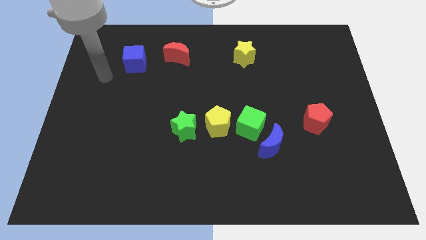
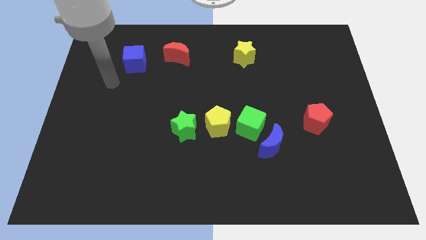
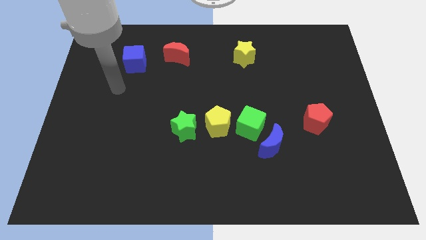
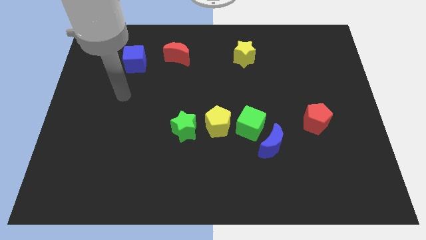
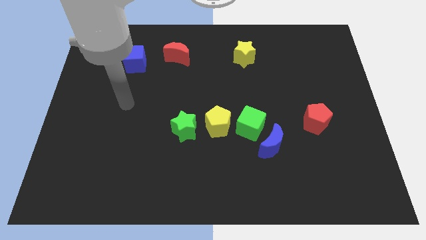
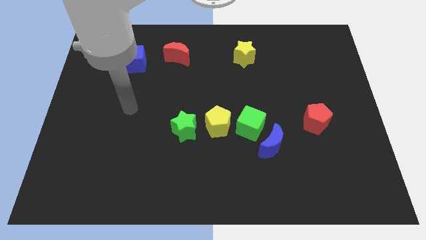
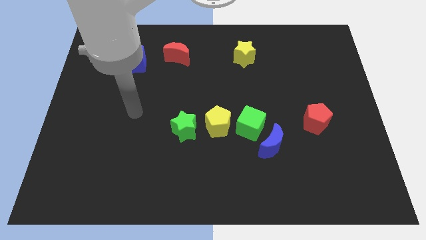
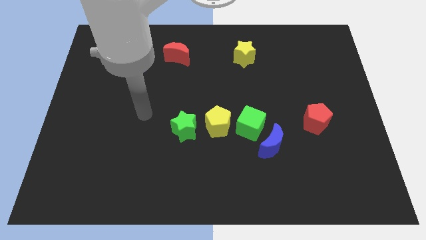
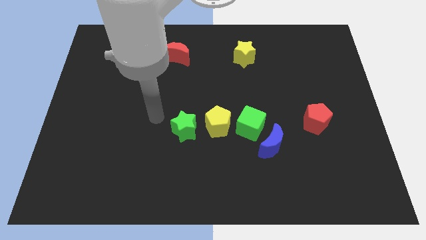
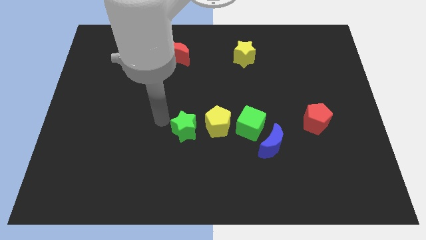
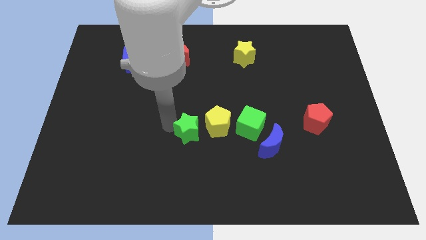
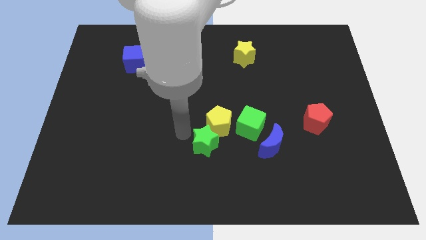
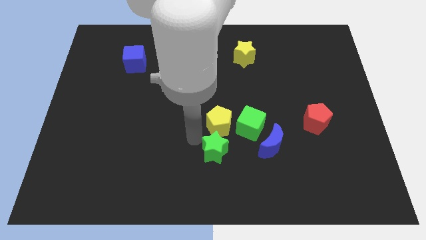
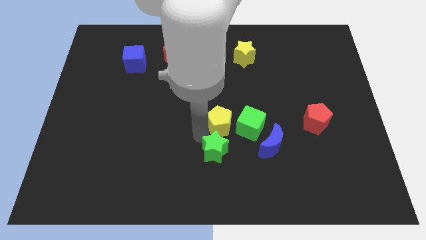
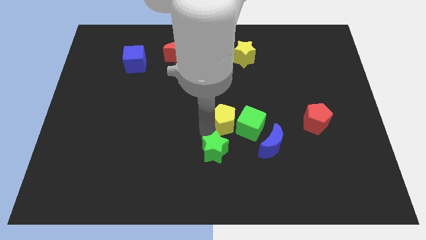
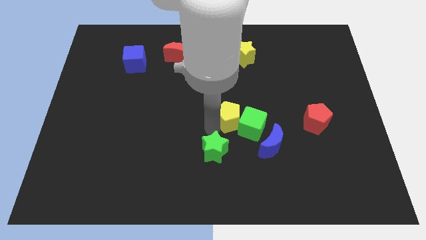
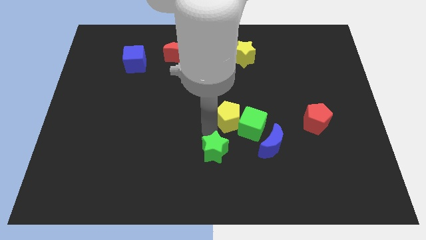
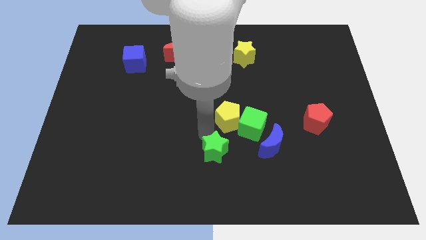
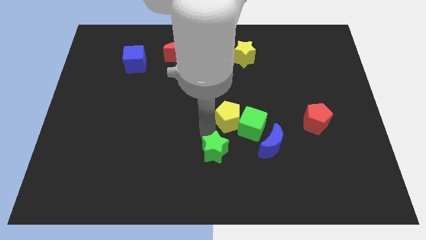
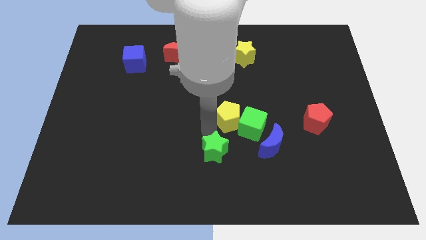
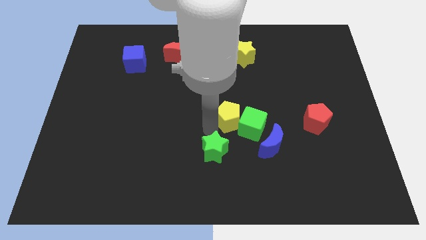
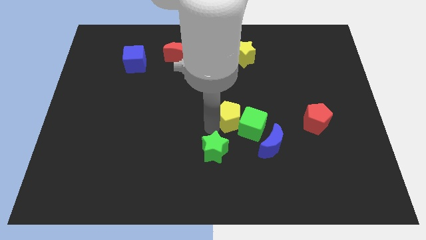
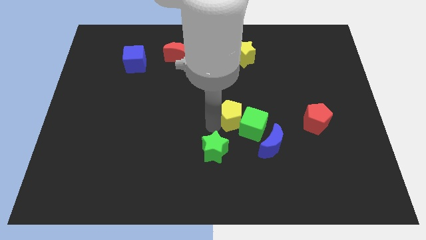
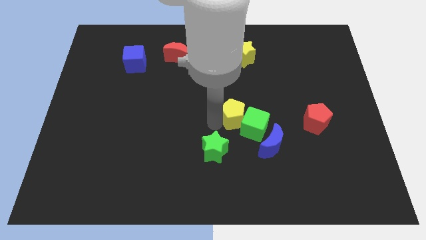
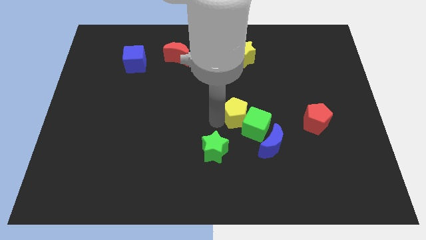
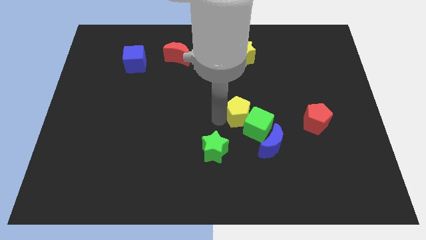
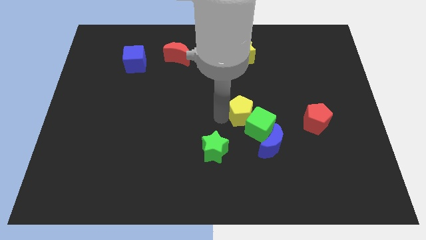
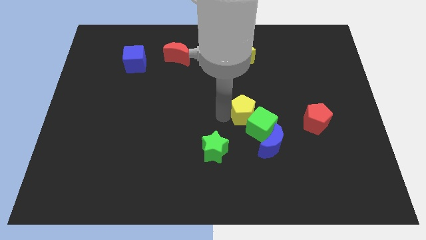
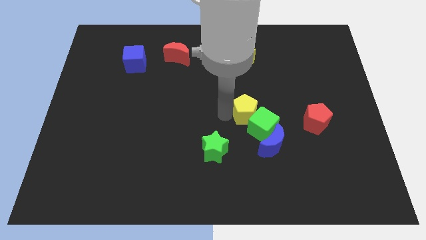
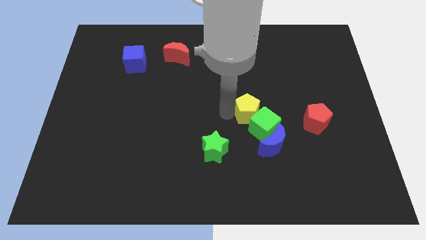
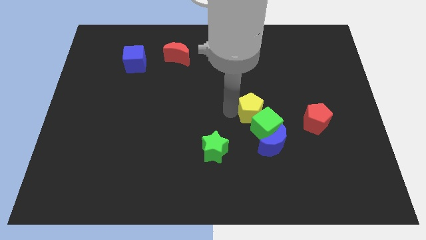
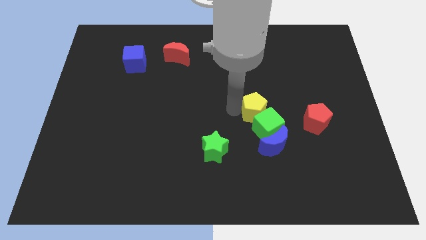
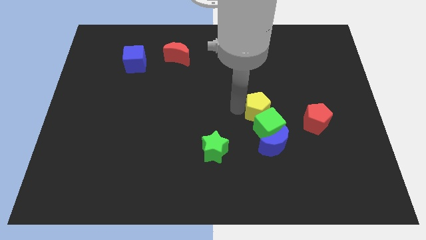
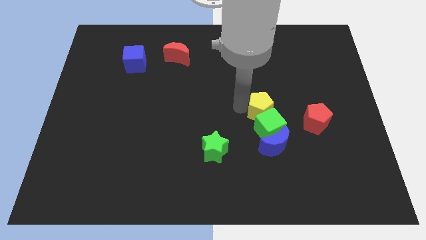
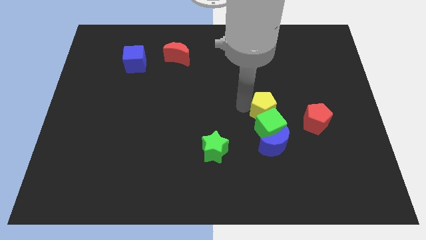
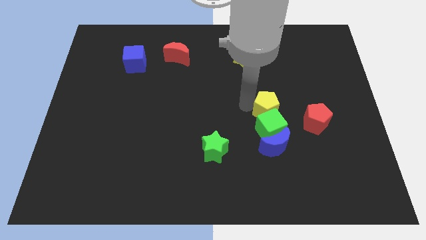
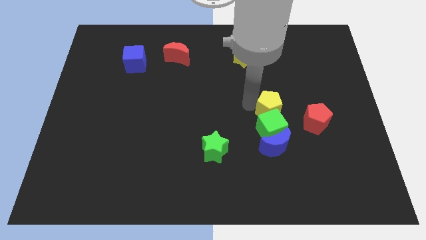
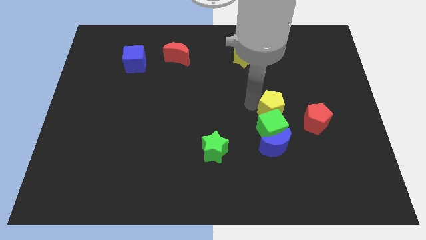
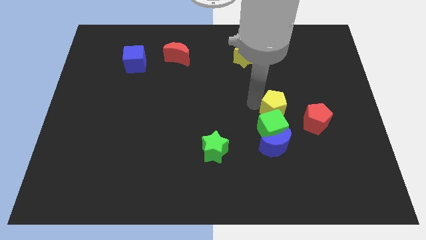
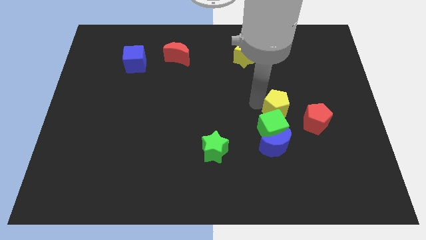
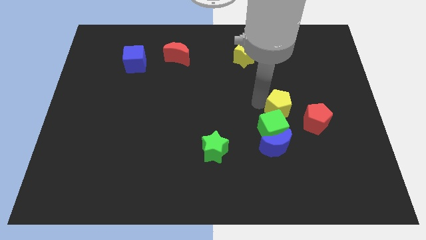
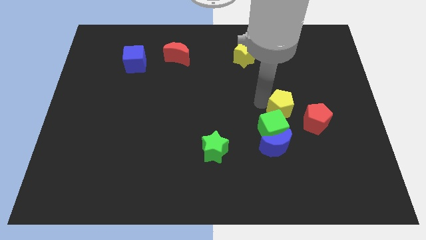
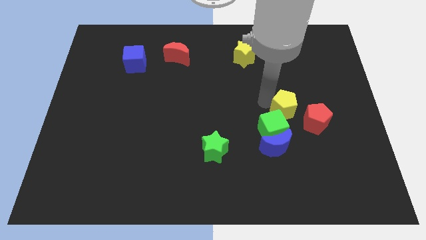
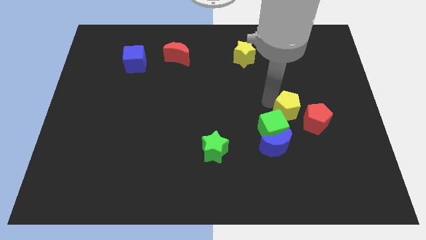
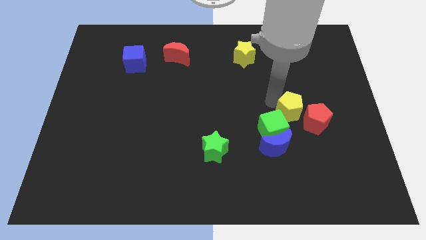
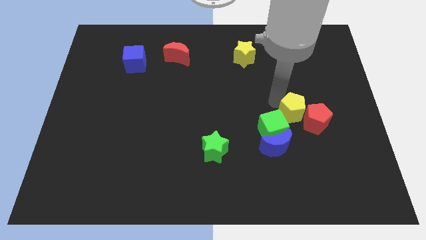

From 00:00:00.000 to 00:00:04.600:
push the yellow pentagon to the red pentagon

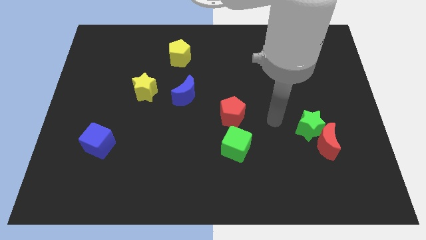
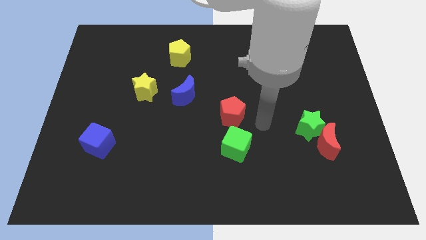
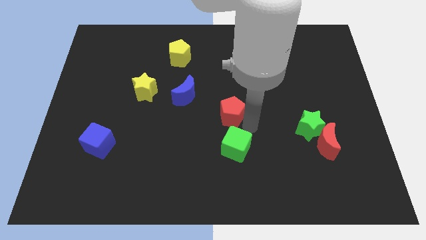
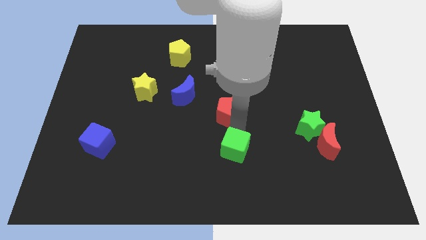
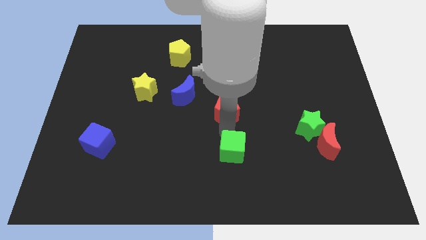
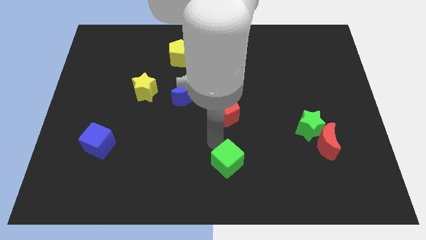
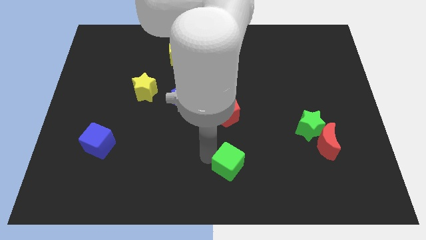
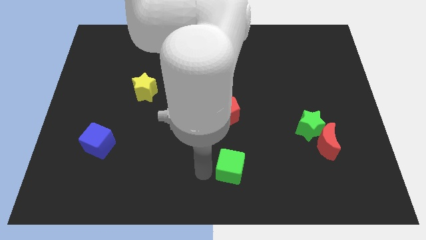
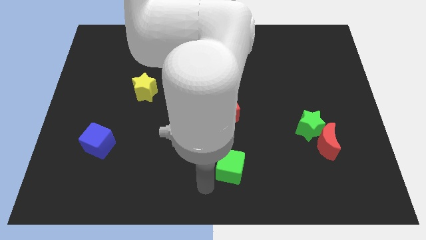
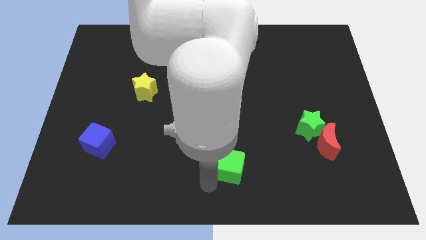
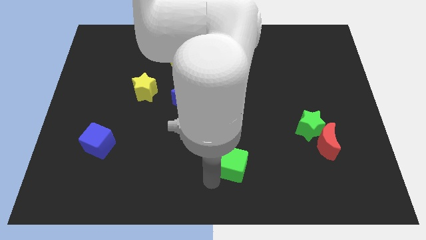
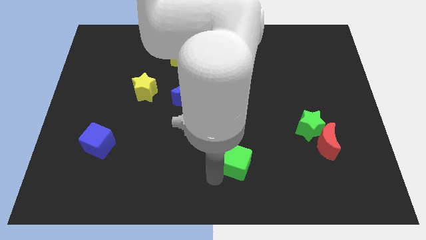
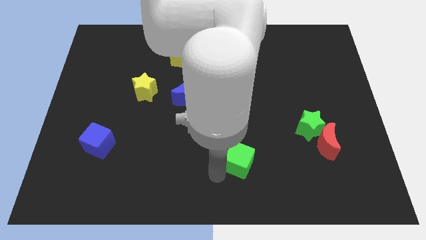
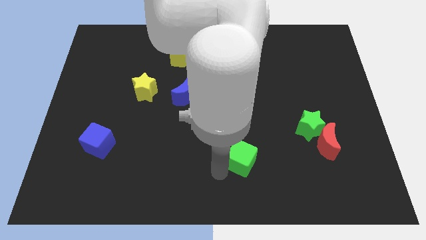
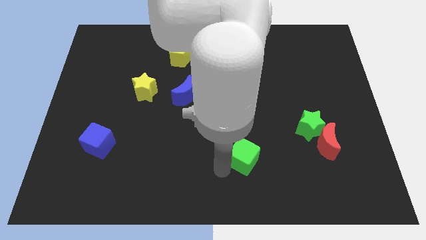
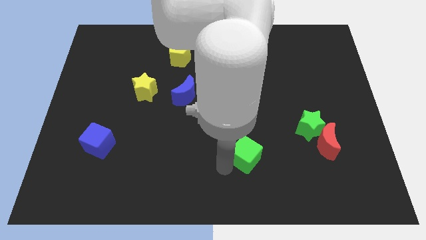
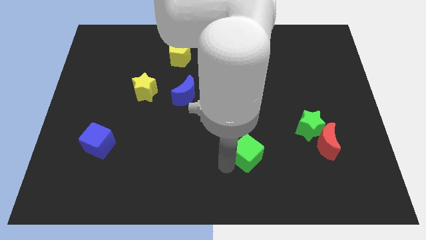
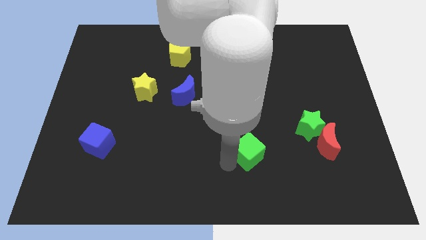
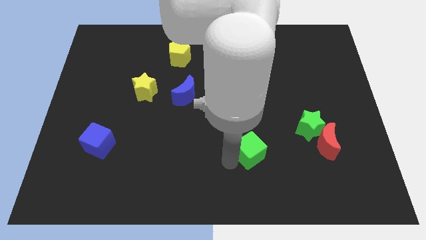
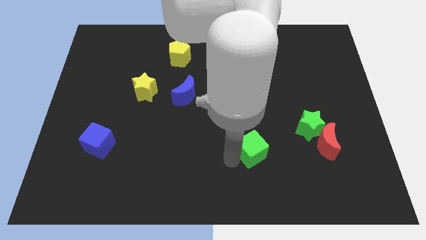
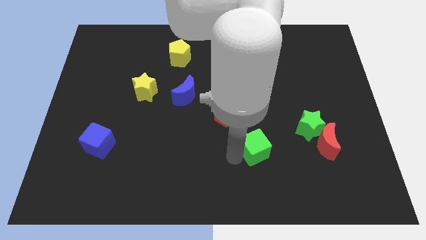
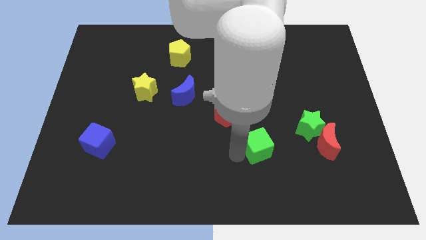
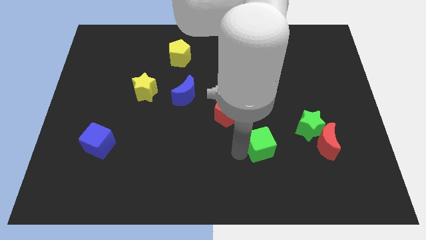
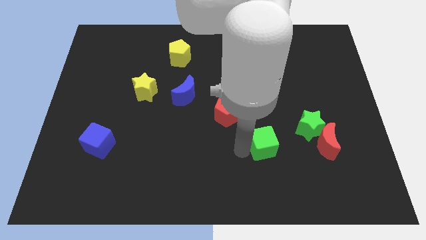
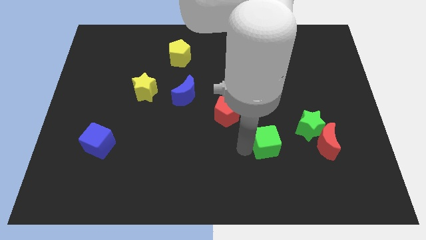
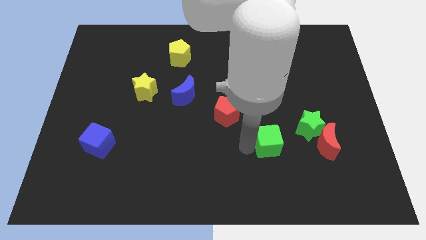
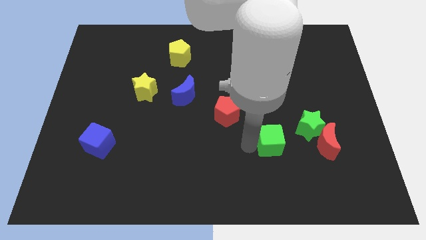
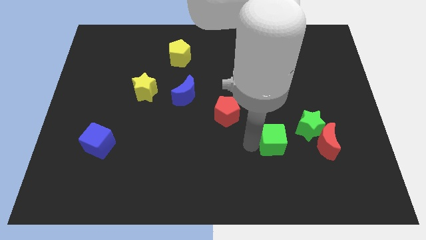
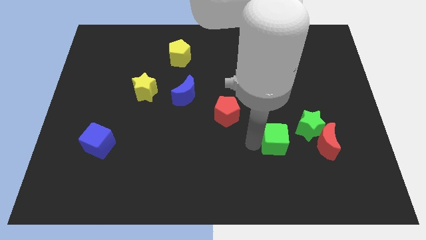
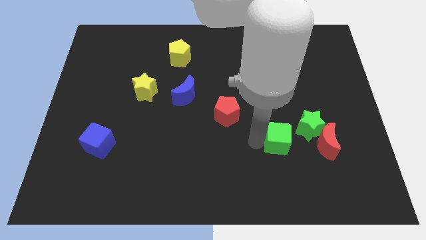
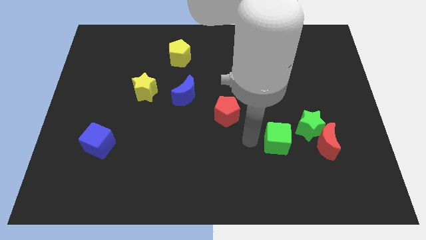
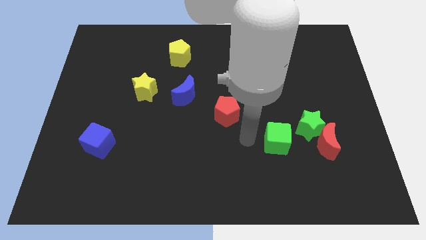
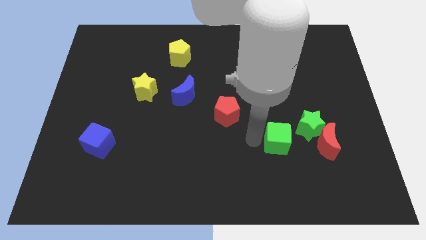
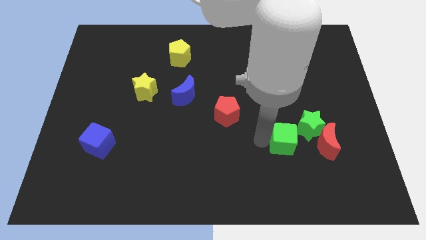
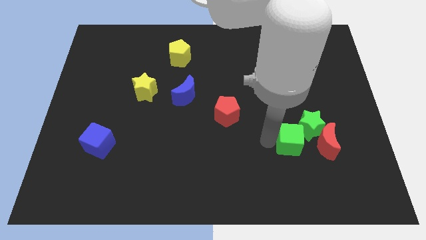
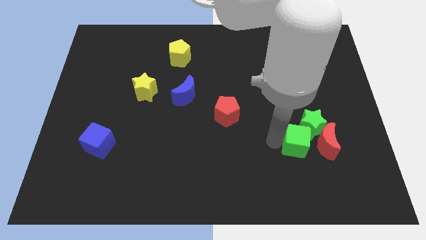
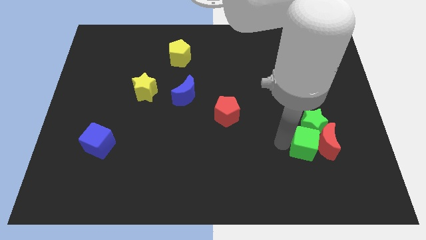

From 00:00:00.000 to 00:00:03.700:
push the green cube next to the red moon
